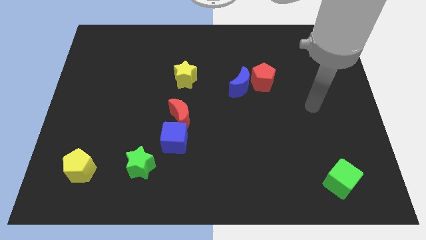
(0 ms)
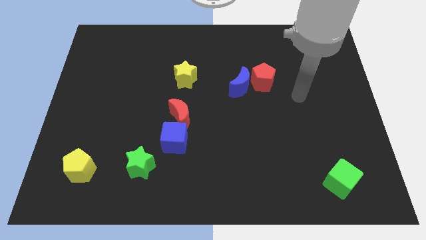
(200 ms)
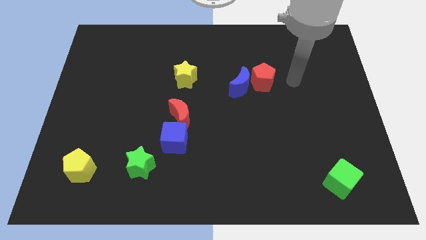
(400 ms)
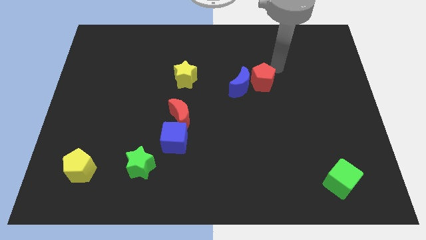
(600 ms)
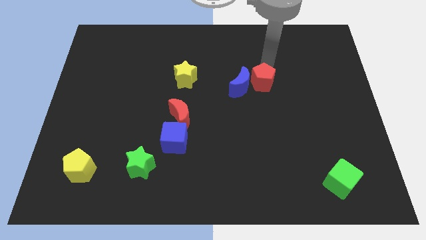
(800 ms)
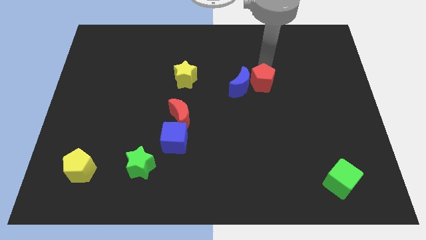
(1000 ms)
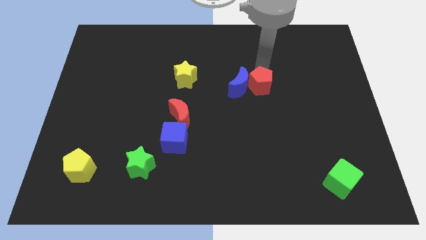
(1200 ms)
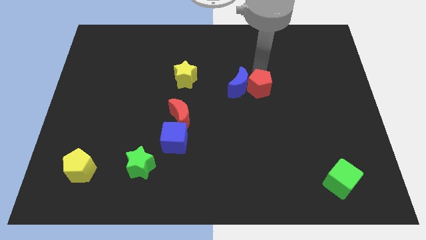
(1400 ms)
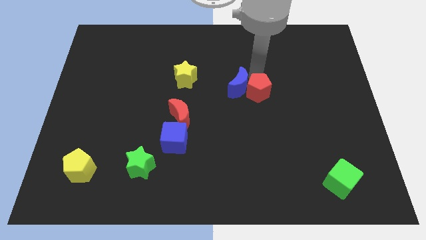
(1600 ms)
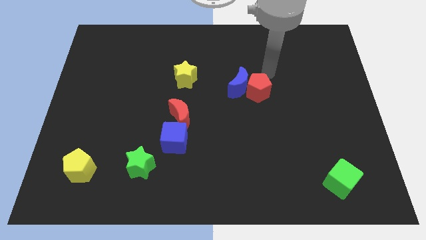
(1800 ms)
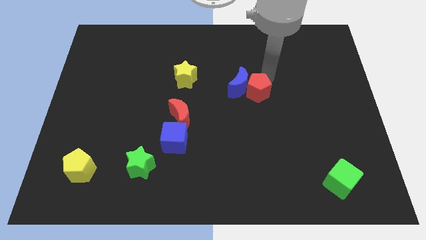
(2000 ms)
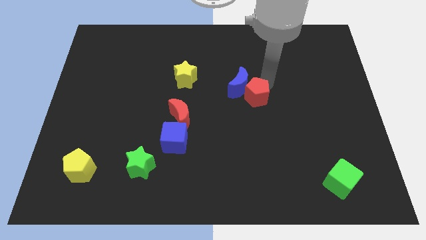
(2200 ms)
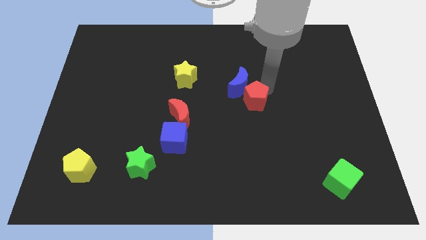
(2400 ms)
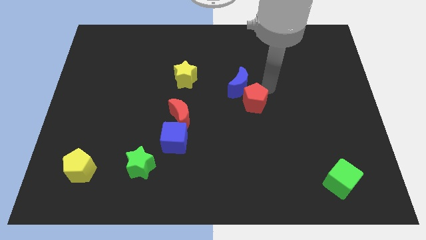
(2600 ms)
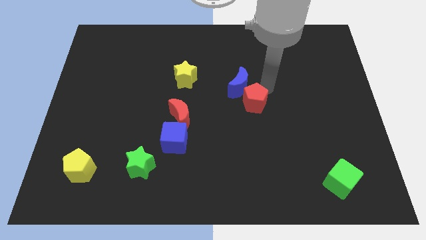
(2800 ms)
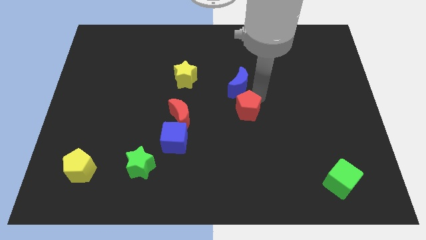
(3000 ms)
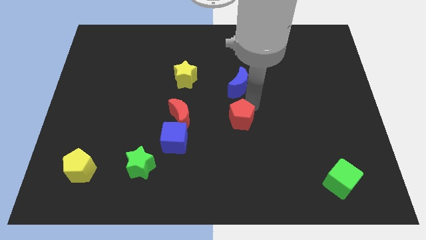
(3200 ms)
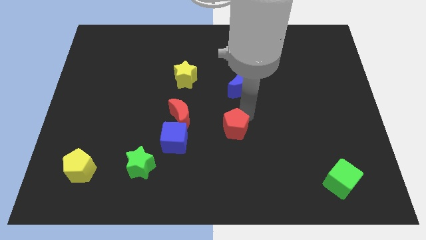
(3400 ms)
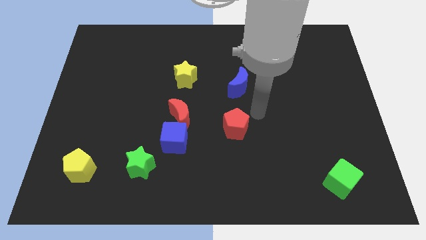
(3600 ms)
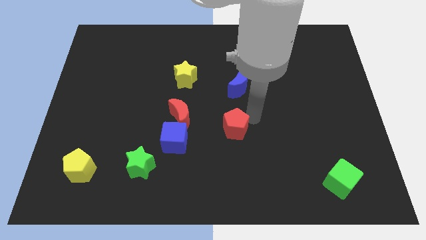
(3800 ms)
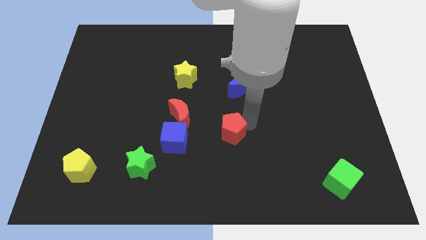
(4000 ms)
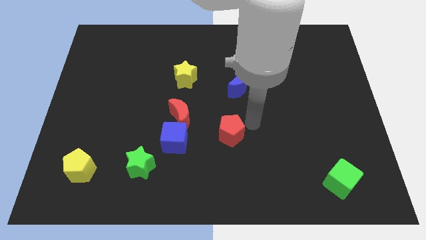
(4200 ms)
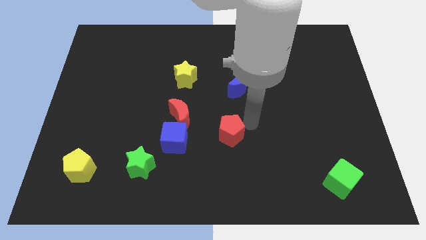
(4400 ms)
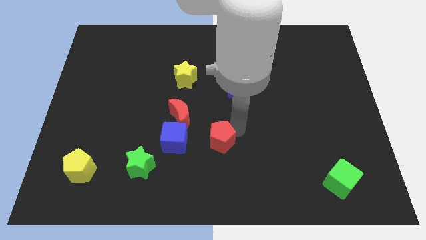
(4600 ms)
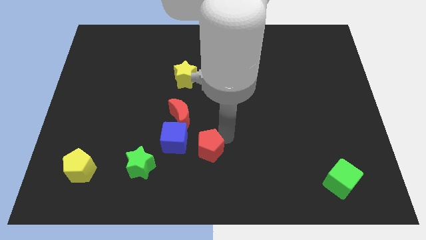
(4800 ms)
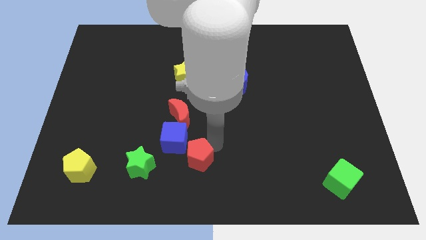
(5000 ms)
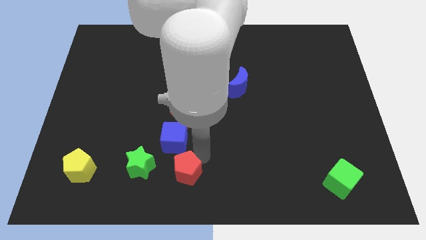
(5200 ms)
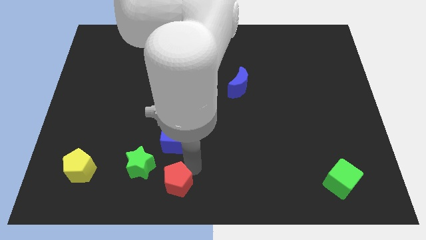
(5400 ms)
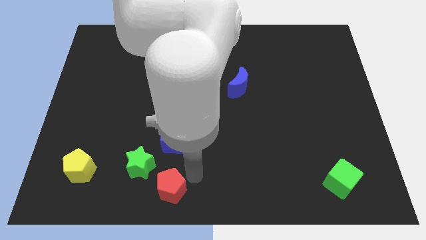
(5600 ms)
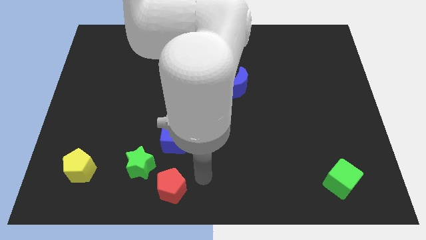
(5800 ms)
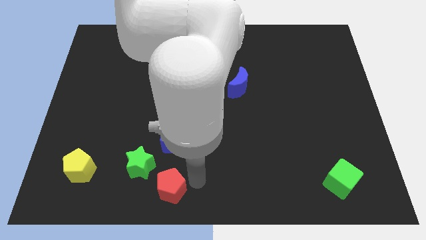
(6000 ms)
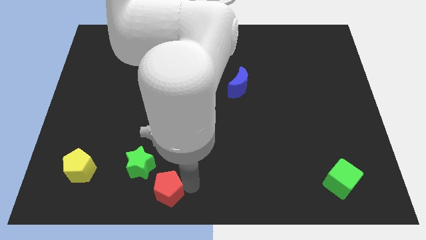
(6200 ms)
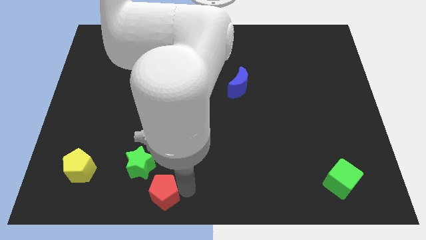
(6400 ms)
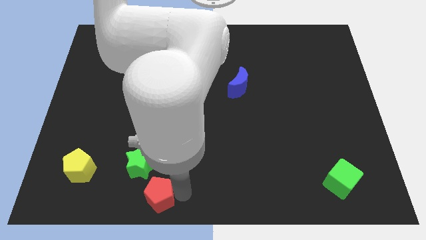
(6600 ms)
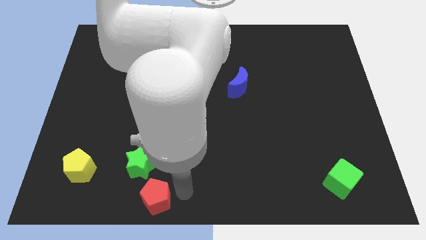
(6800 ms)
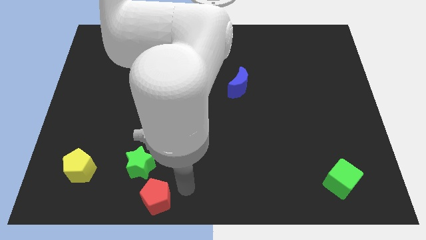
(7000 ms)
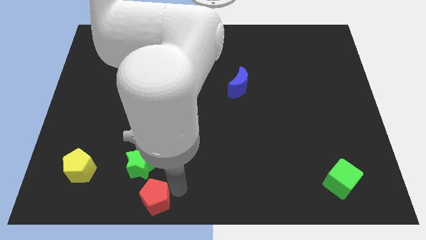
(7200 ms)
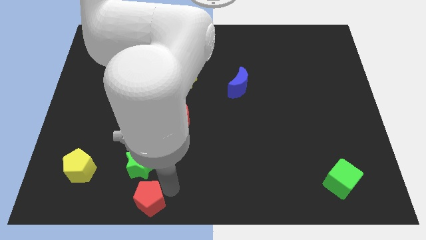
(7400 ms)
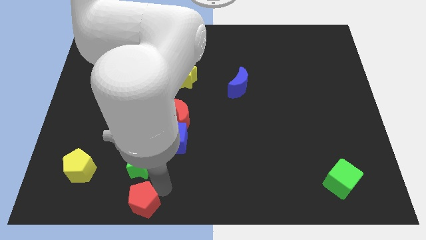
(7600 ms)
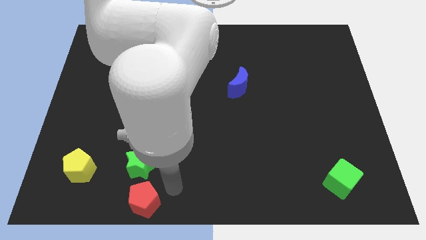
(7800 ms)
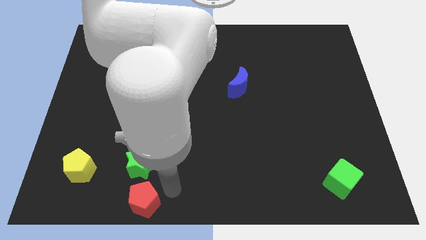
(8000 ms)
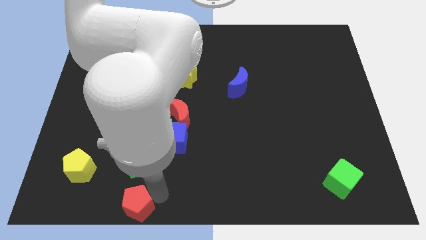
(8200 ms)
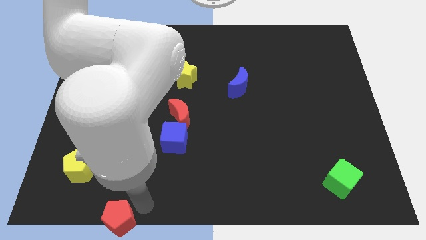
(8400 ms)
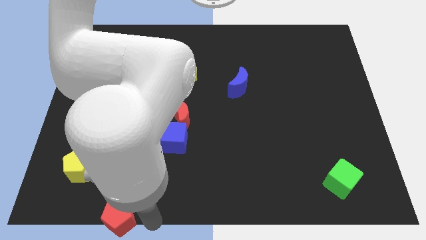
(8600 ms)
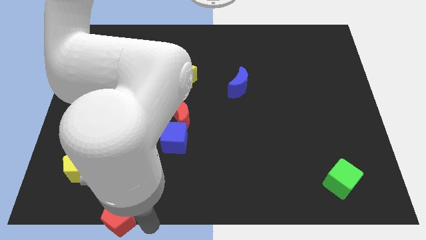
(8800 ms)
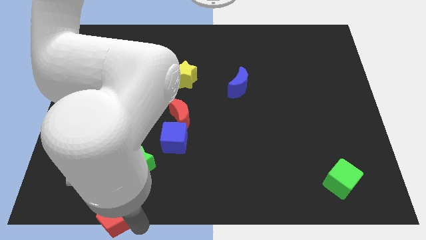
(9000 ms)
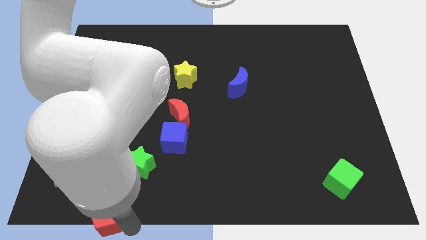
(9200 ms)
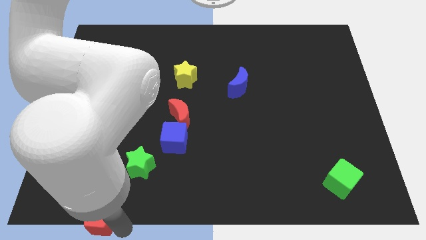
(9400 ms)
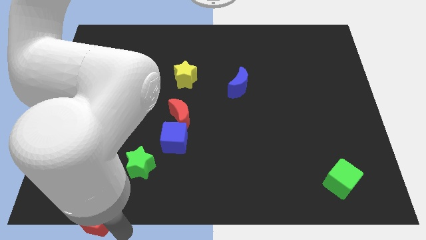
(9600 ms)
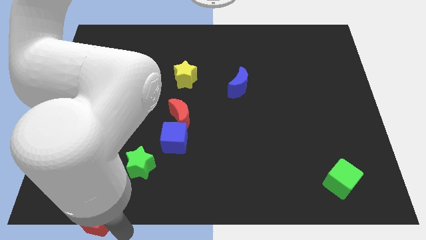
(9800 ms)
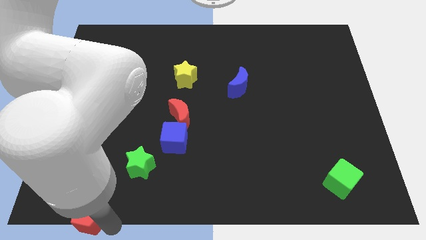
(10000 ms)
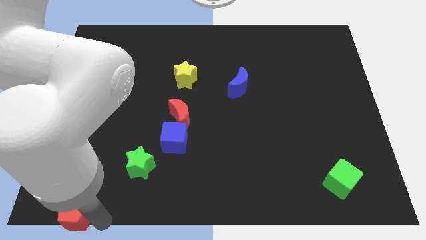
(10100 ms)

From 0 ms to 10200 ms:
slide the red pentagon to the bottom left corner

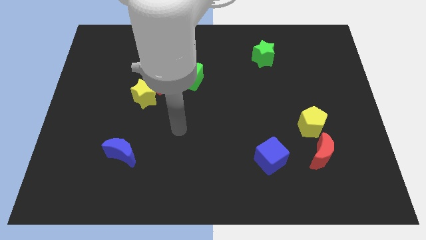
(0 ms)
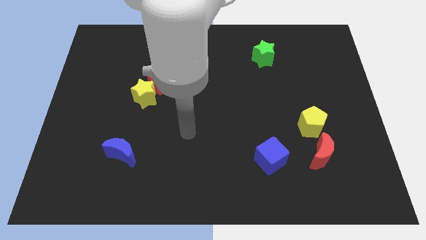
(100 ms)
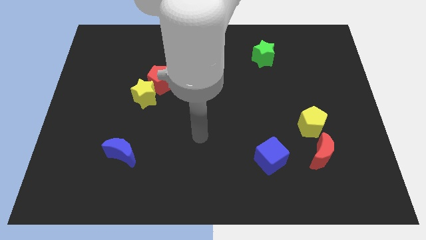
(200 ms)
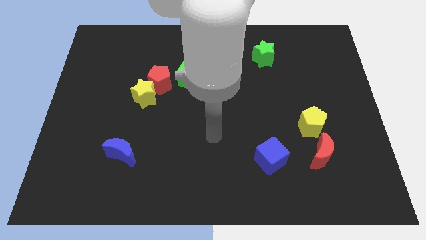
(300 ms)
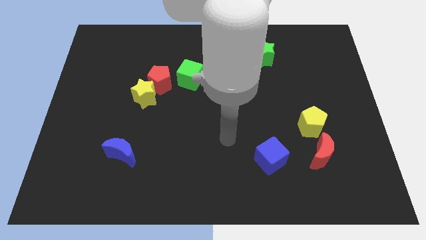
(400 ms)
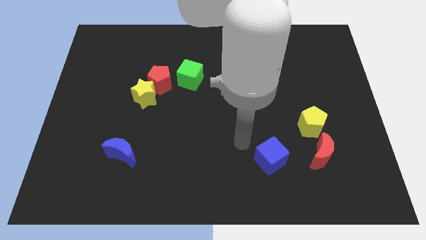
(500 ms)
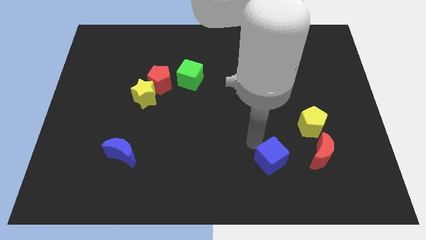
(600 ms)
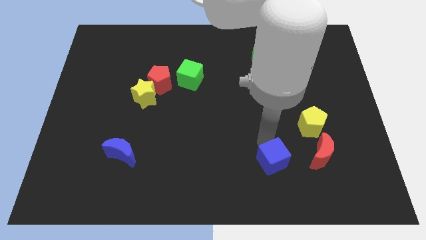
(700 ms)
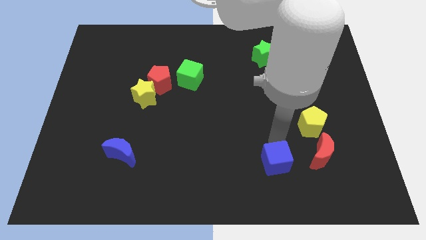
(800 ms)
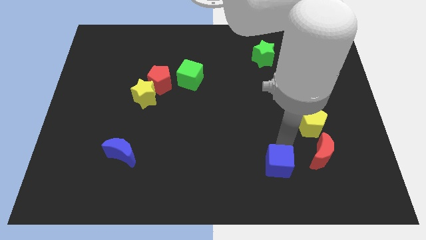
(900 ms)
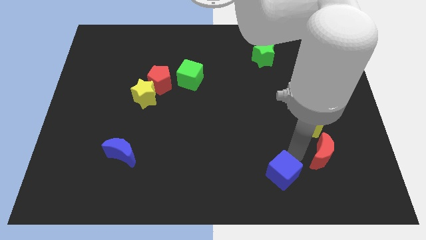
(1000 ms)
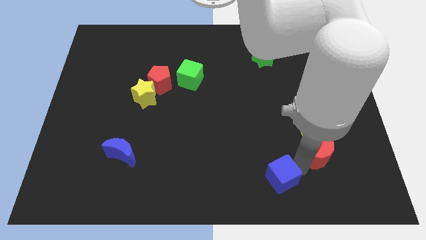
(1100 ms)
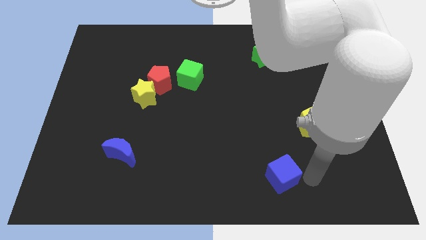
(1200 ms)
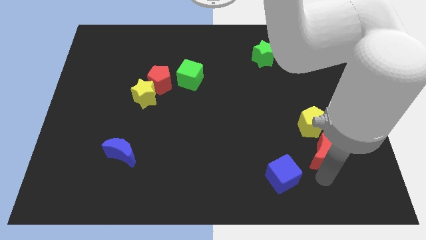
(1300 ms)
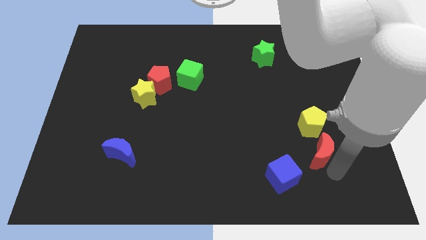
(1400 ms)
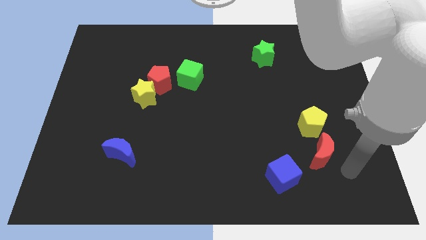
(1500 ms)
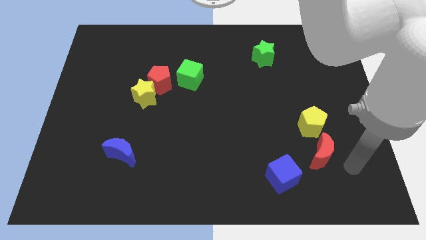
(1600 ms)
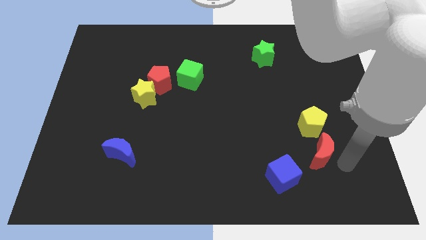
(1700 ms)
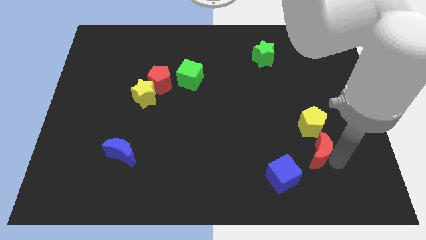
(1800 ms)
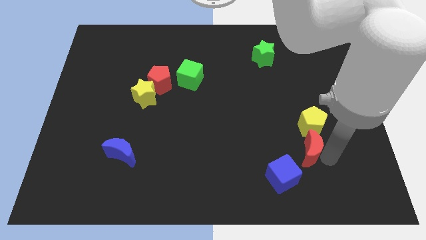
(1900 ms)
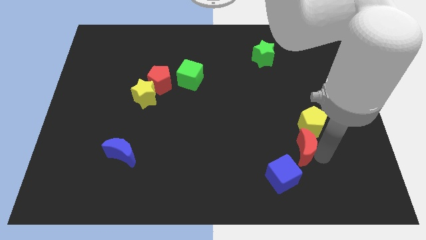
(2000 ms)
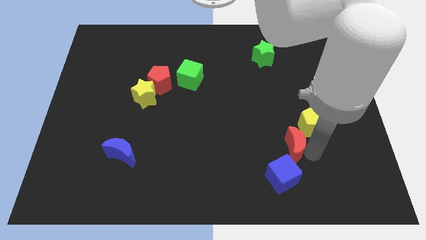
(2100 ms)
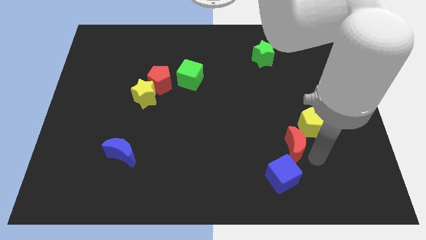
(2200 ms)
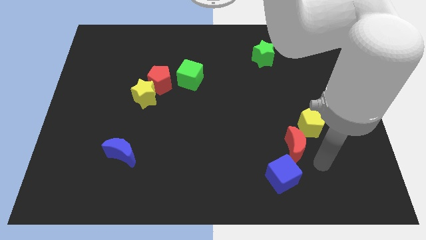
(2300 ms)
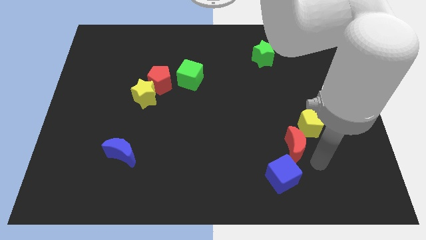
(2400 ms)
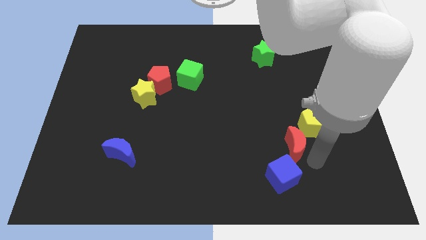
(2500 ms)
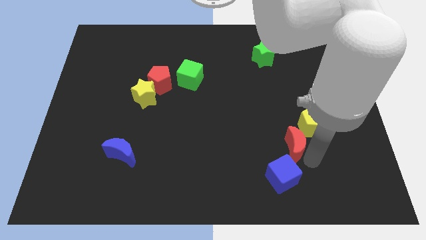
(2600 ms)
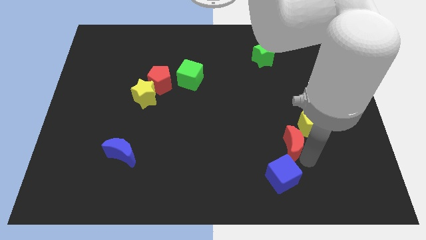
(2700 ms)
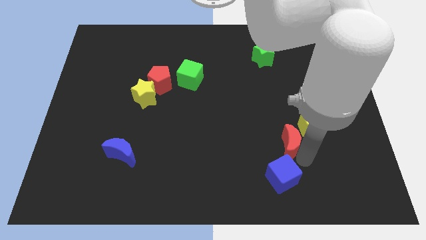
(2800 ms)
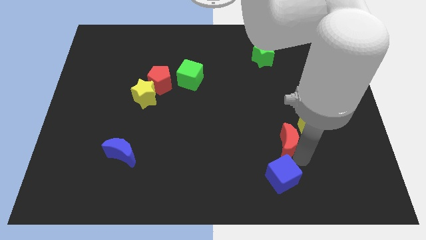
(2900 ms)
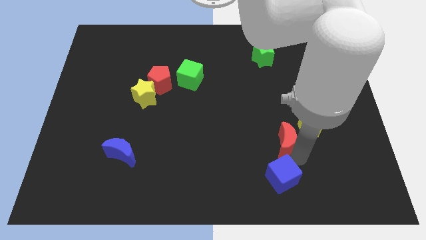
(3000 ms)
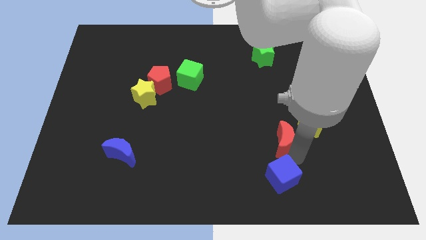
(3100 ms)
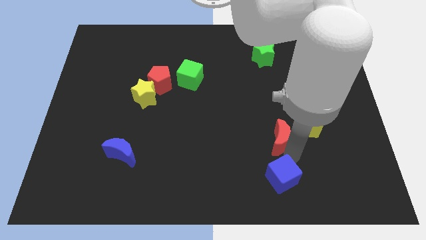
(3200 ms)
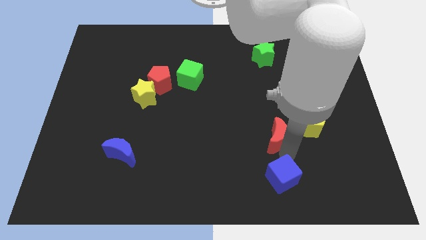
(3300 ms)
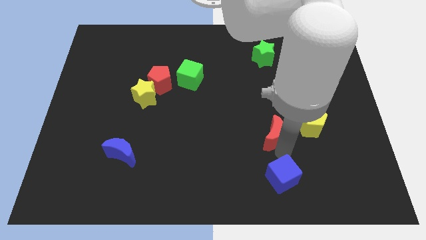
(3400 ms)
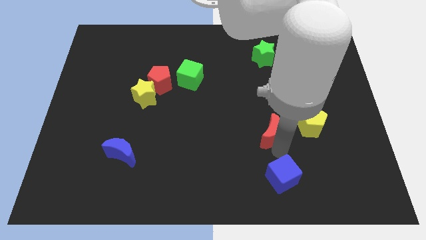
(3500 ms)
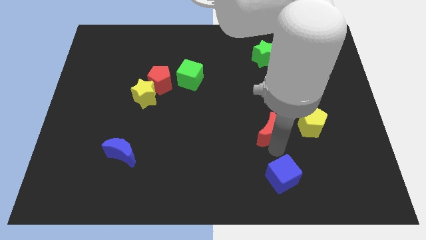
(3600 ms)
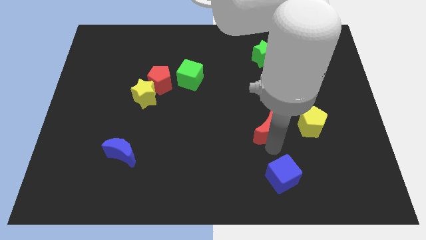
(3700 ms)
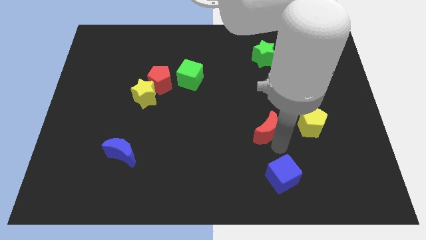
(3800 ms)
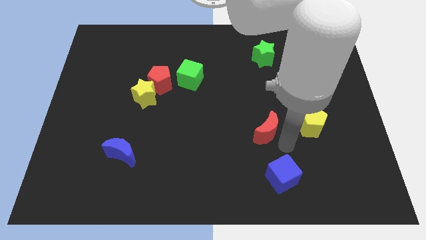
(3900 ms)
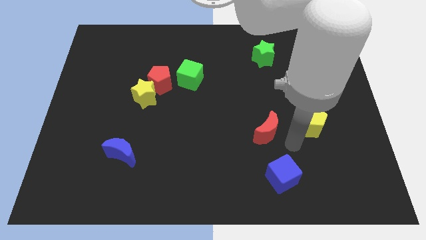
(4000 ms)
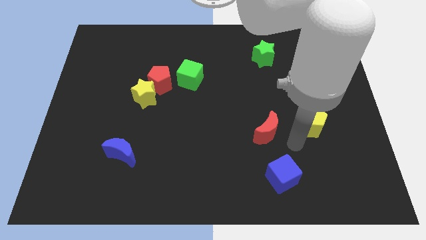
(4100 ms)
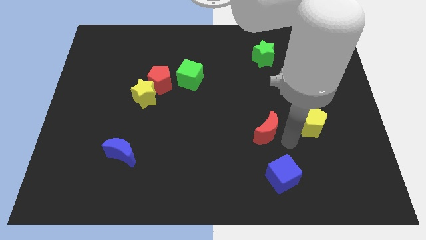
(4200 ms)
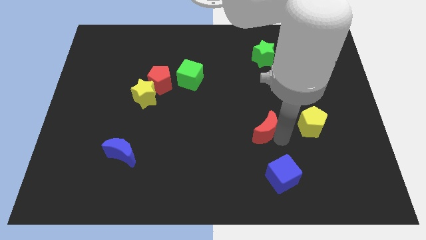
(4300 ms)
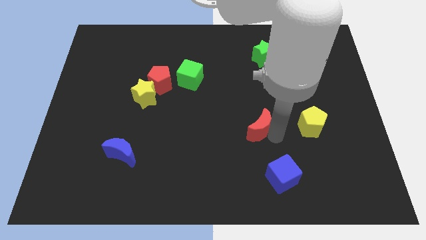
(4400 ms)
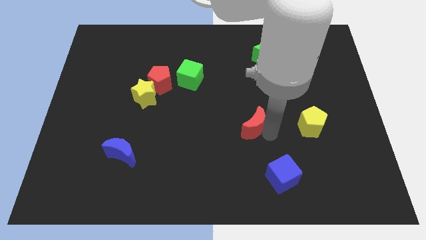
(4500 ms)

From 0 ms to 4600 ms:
put the red moon to the middle
